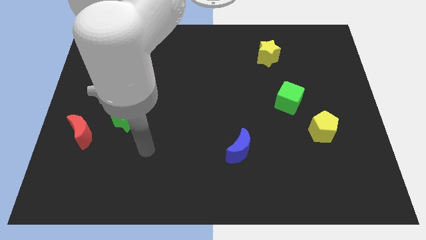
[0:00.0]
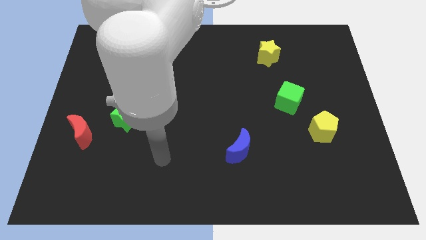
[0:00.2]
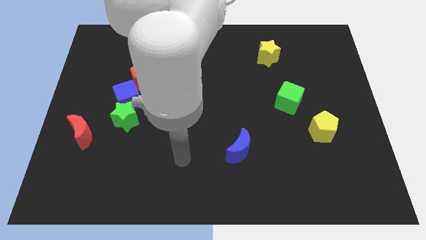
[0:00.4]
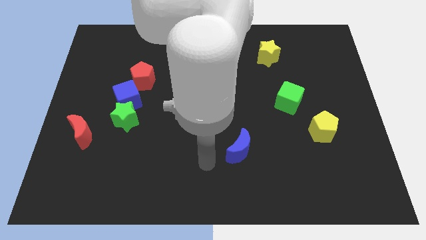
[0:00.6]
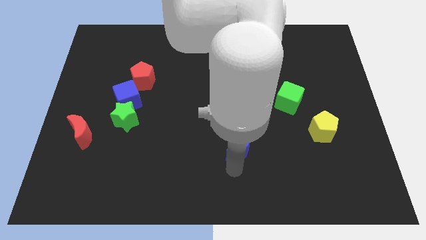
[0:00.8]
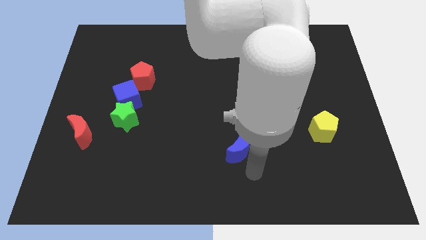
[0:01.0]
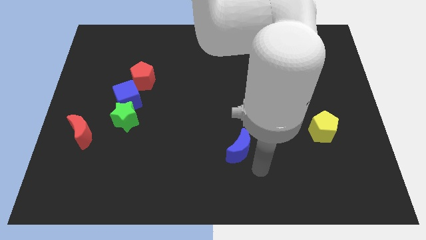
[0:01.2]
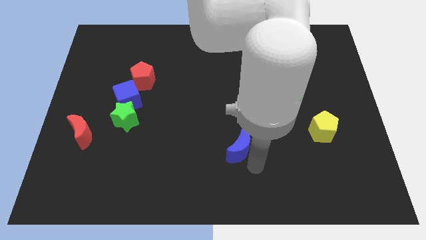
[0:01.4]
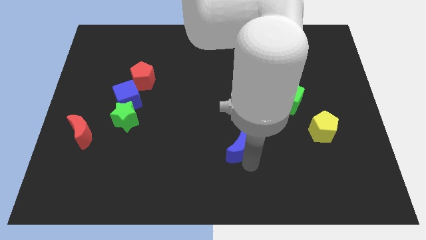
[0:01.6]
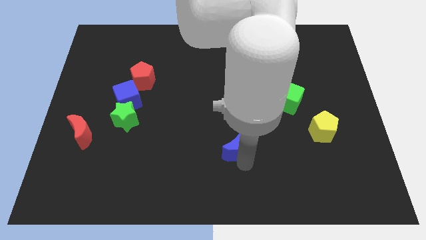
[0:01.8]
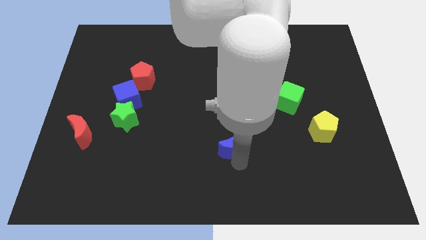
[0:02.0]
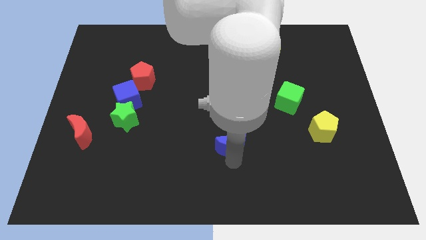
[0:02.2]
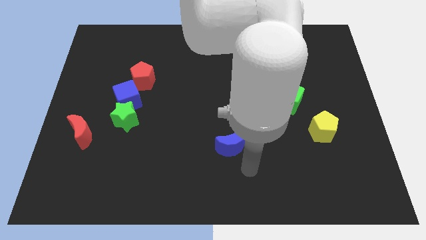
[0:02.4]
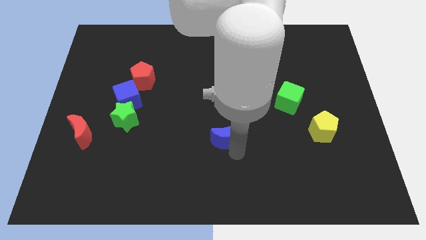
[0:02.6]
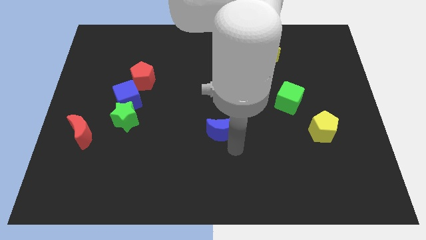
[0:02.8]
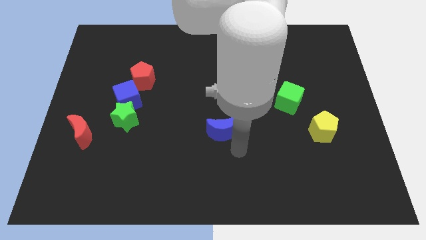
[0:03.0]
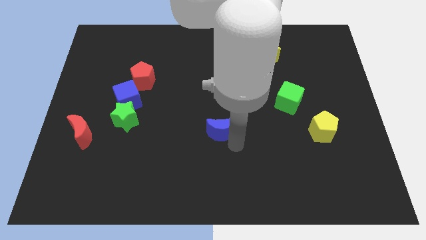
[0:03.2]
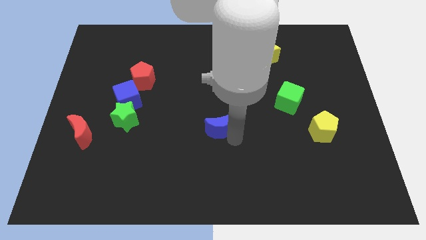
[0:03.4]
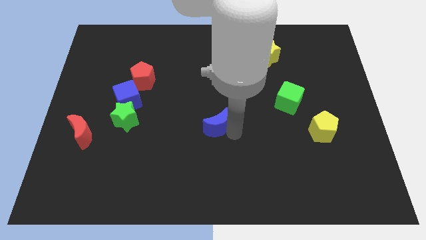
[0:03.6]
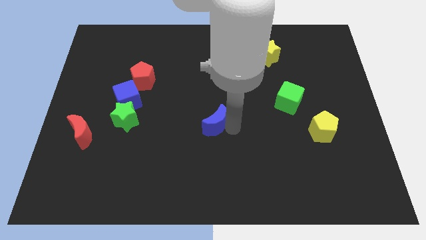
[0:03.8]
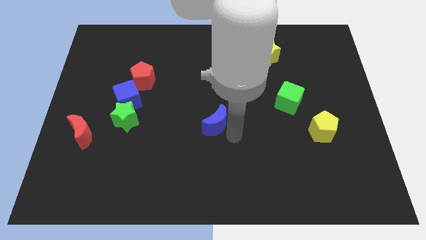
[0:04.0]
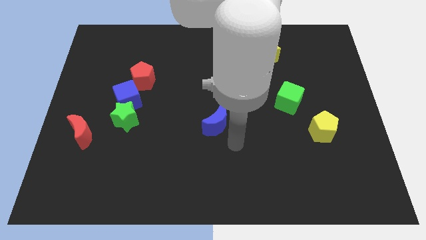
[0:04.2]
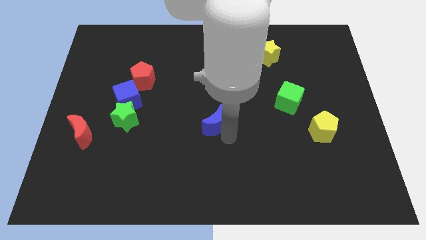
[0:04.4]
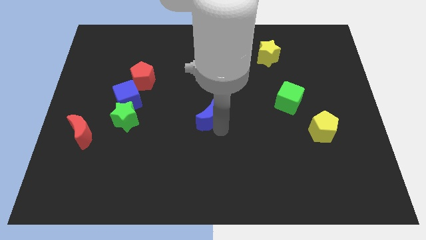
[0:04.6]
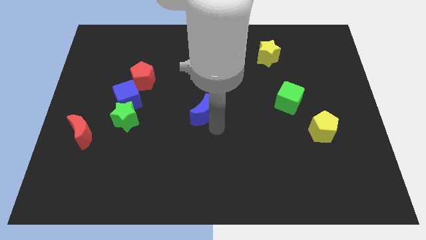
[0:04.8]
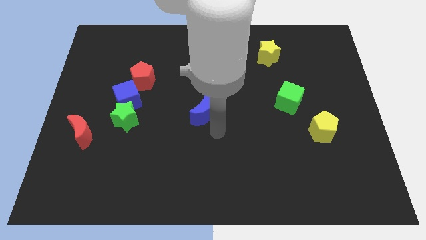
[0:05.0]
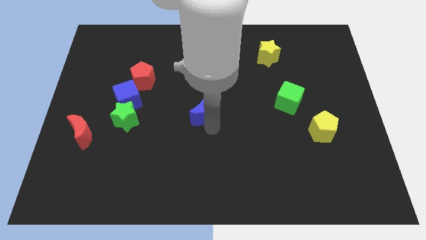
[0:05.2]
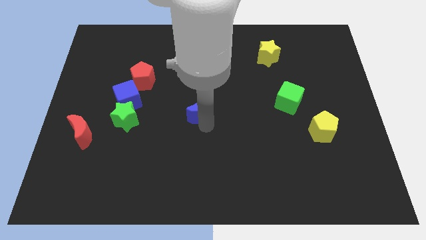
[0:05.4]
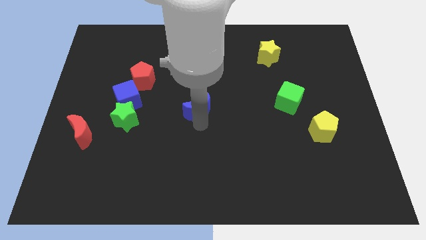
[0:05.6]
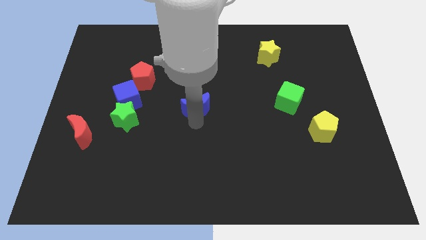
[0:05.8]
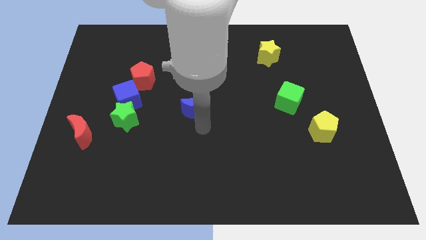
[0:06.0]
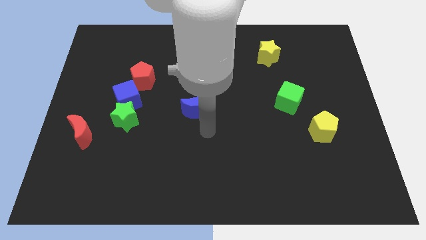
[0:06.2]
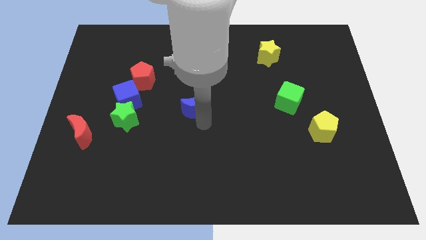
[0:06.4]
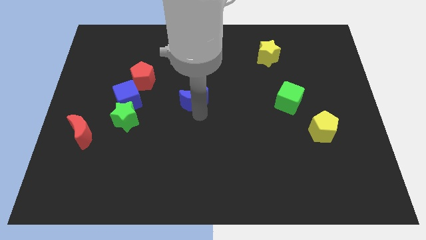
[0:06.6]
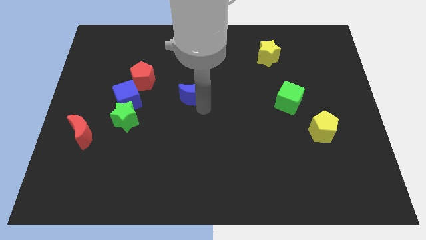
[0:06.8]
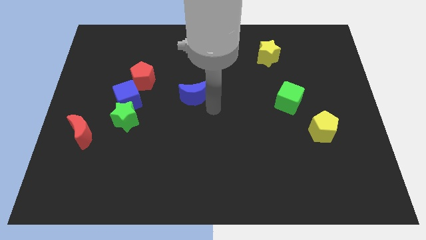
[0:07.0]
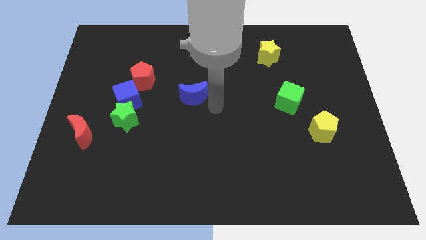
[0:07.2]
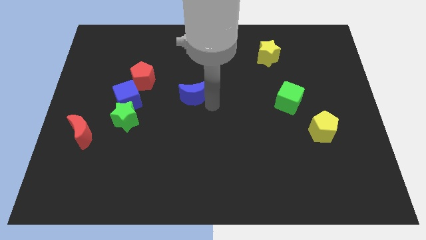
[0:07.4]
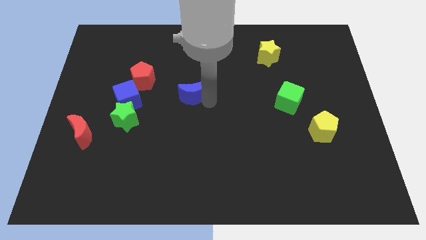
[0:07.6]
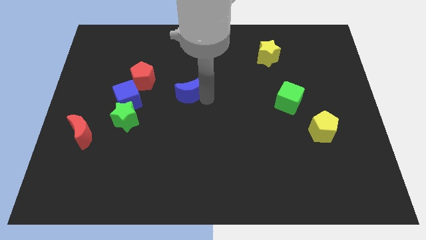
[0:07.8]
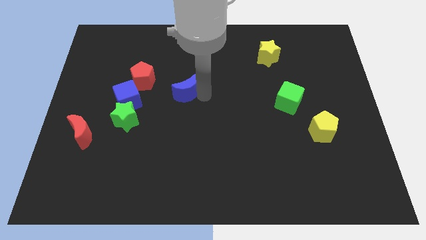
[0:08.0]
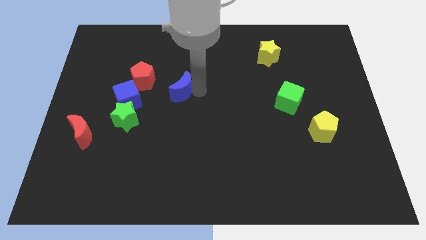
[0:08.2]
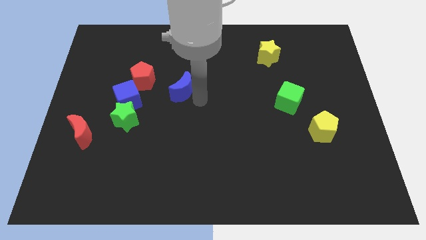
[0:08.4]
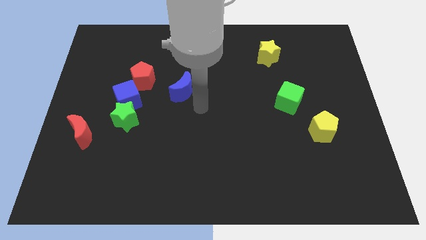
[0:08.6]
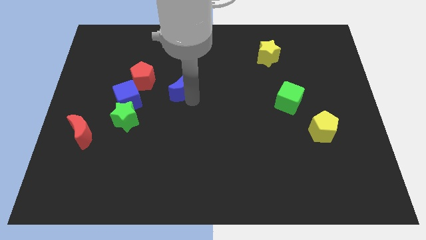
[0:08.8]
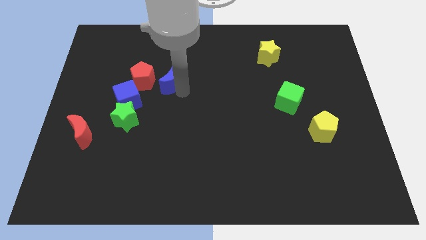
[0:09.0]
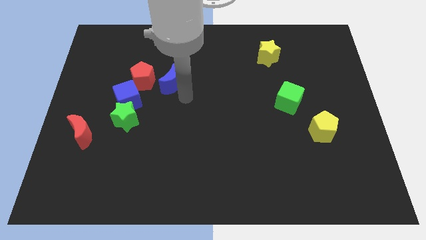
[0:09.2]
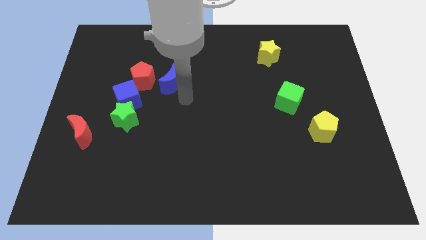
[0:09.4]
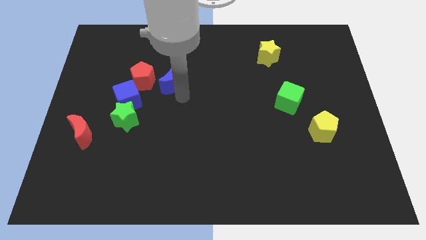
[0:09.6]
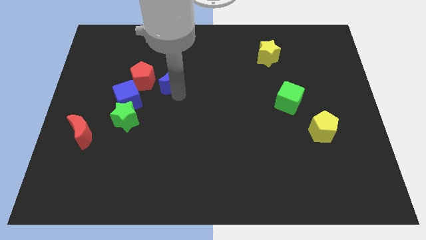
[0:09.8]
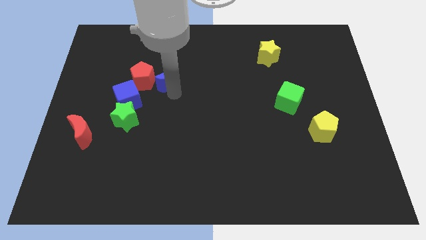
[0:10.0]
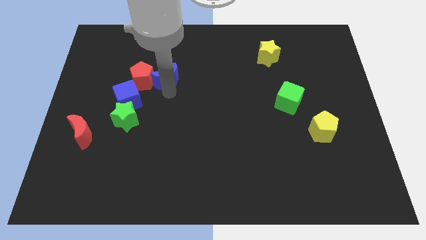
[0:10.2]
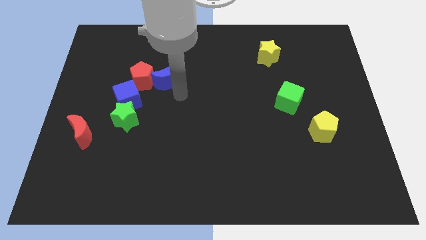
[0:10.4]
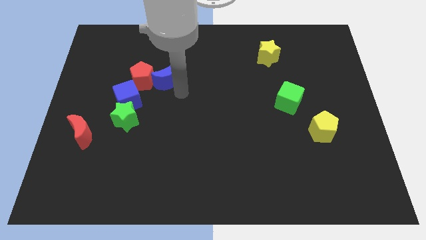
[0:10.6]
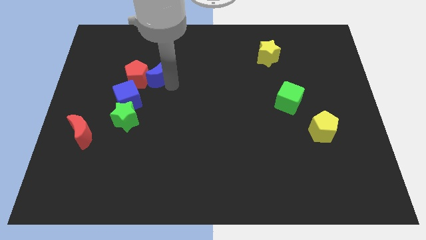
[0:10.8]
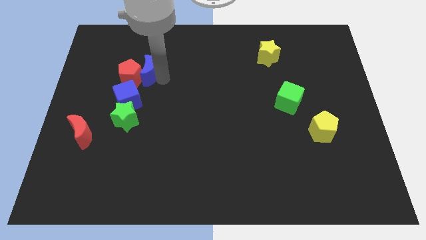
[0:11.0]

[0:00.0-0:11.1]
push the blue moon to the top of the blue cube

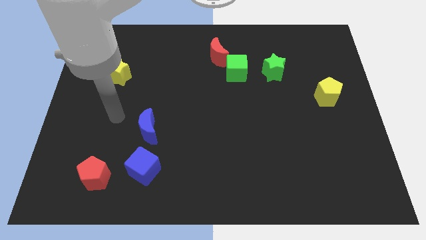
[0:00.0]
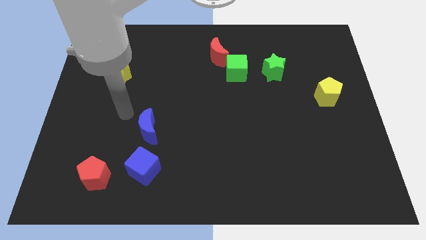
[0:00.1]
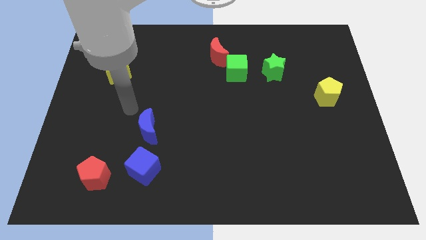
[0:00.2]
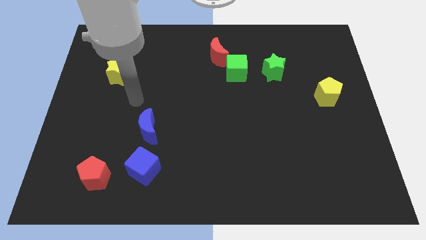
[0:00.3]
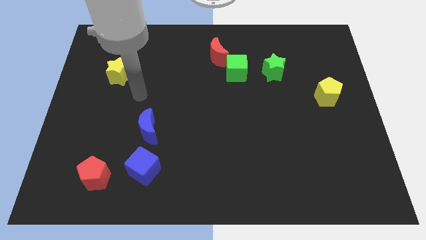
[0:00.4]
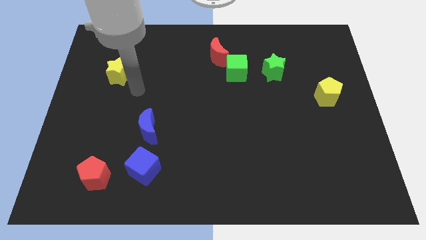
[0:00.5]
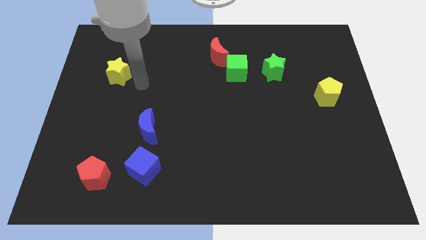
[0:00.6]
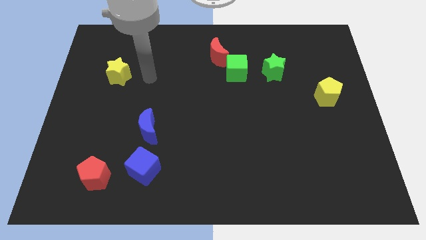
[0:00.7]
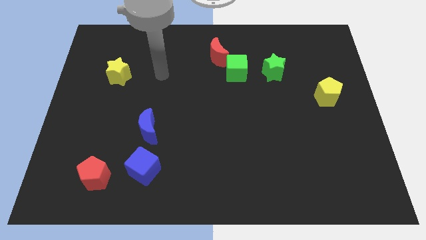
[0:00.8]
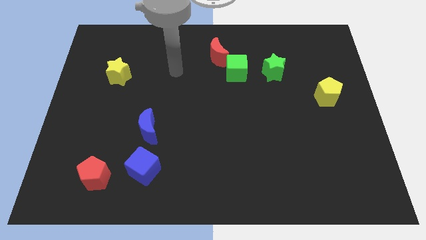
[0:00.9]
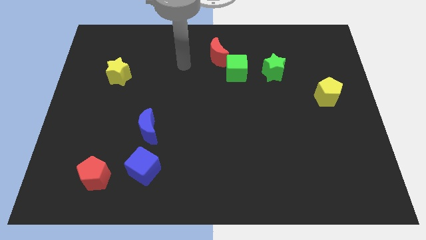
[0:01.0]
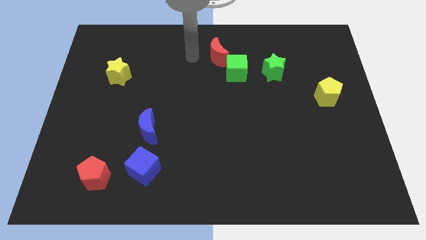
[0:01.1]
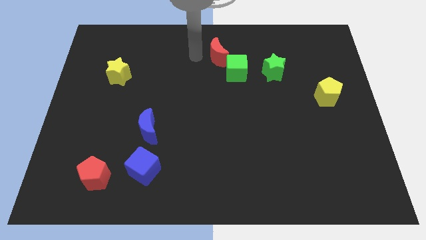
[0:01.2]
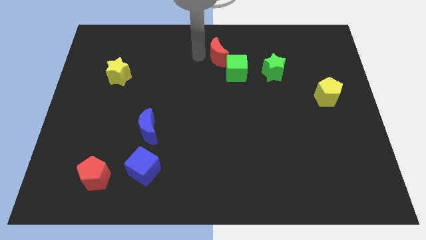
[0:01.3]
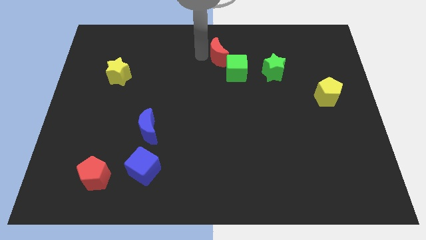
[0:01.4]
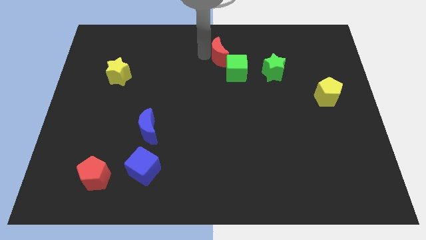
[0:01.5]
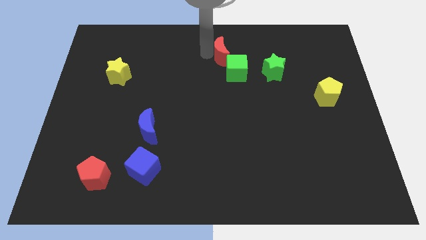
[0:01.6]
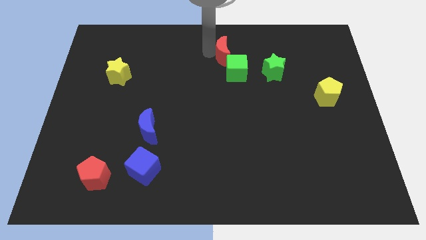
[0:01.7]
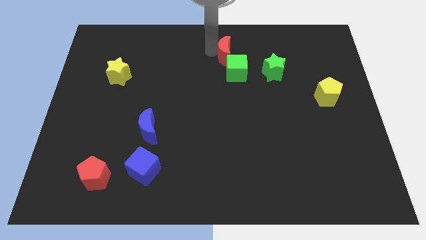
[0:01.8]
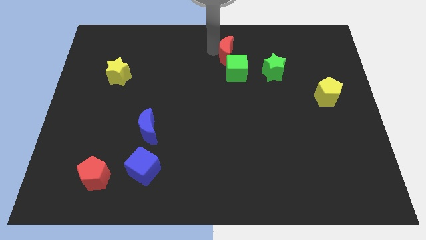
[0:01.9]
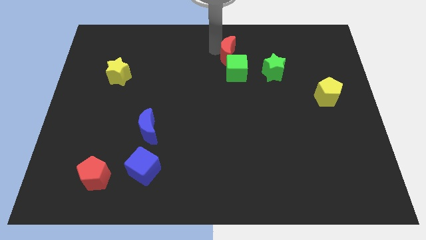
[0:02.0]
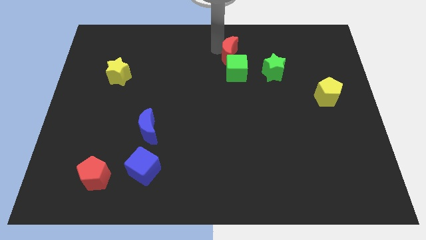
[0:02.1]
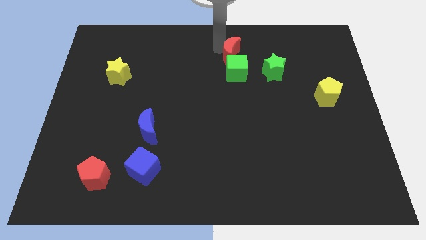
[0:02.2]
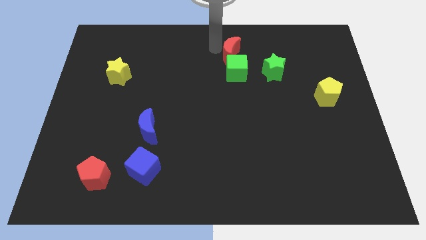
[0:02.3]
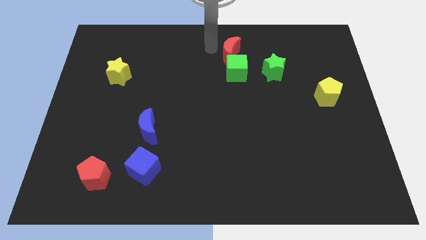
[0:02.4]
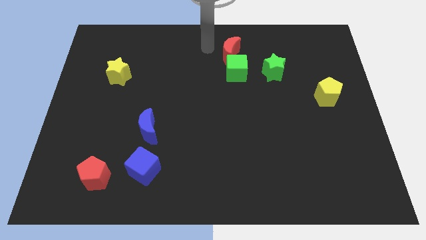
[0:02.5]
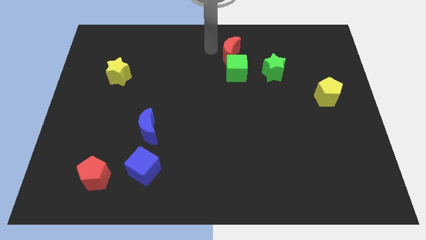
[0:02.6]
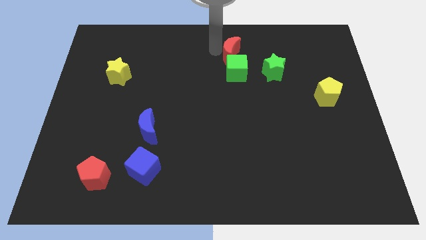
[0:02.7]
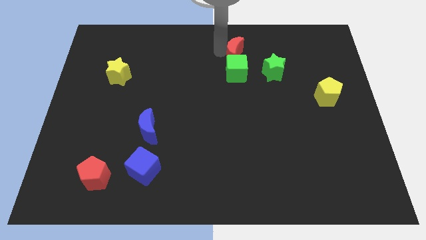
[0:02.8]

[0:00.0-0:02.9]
slide the red moon to the top right of the green cube
